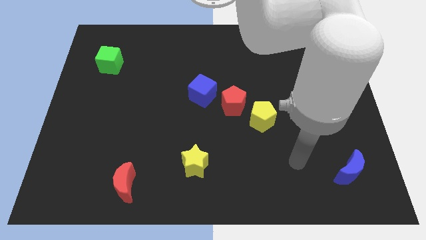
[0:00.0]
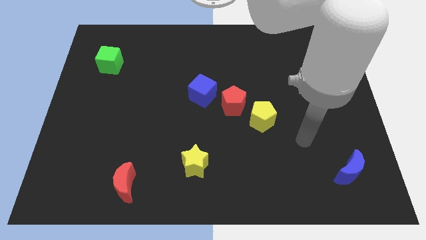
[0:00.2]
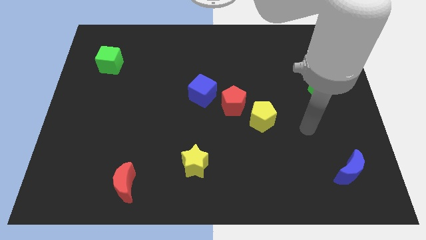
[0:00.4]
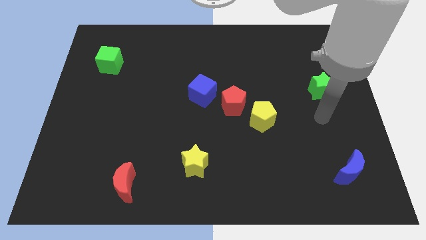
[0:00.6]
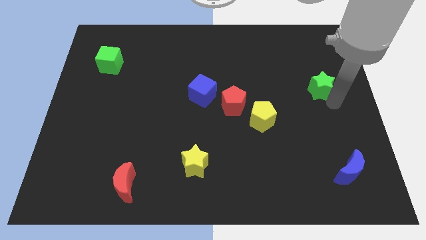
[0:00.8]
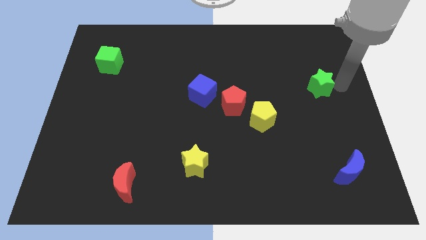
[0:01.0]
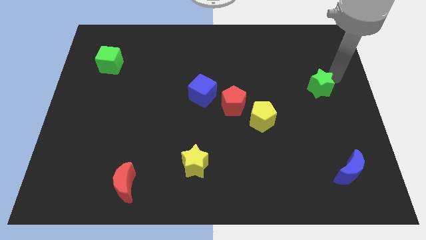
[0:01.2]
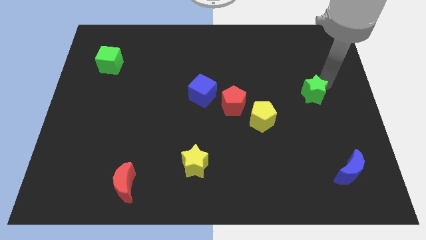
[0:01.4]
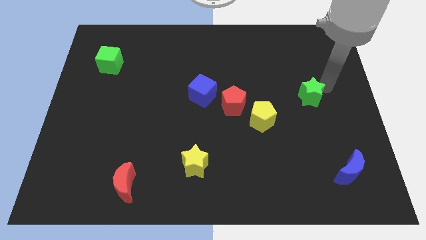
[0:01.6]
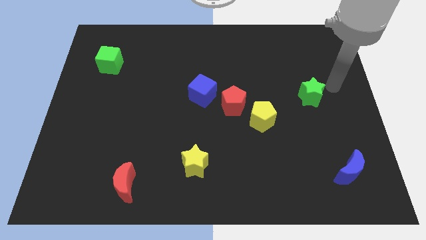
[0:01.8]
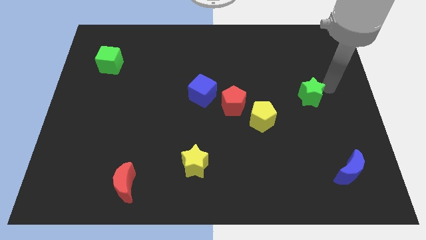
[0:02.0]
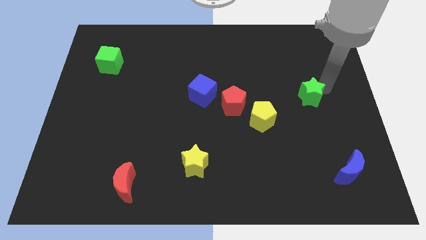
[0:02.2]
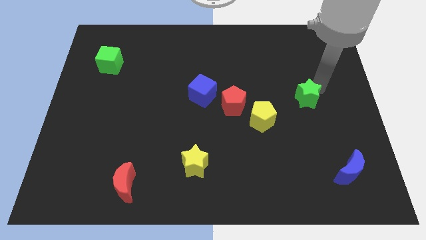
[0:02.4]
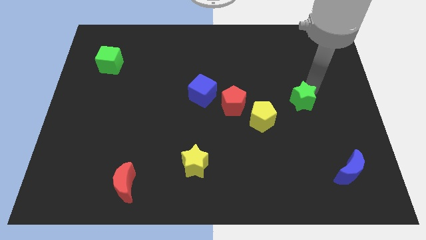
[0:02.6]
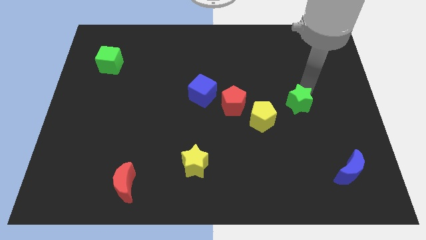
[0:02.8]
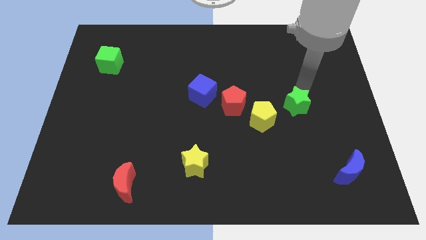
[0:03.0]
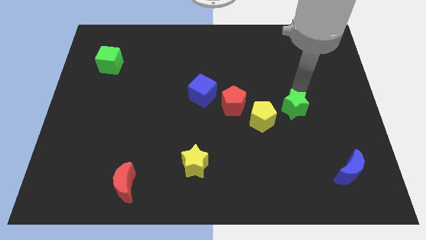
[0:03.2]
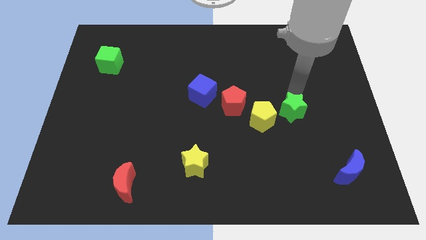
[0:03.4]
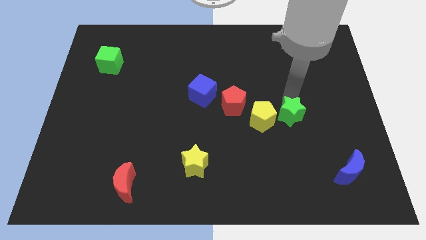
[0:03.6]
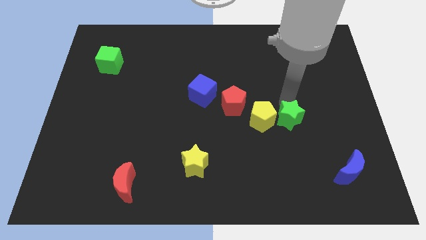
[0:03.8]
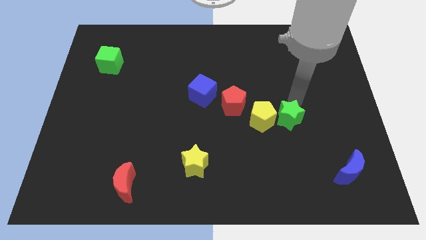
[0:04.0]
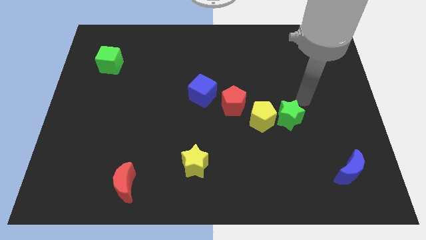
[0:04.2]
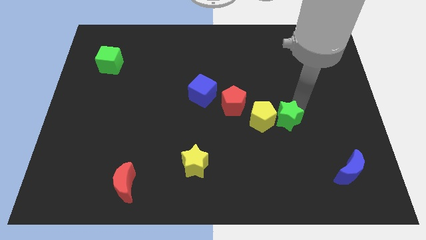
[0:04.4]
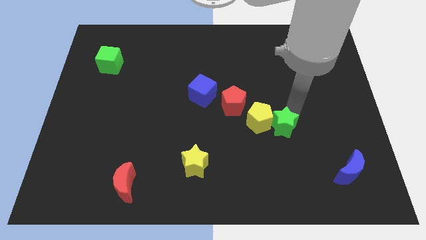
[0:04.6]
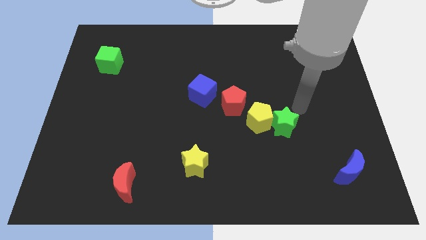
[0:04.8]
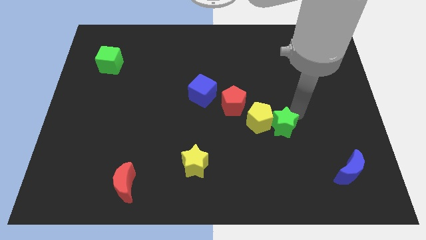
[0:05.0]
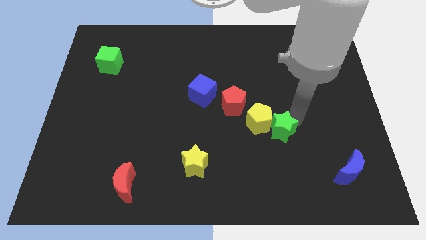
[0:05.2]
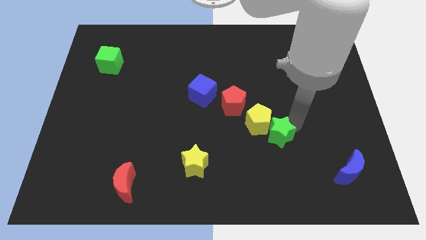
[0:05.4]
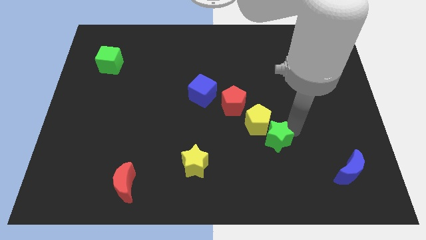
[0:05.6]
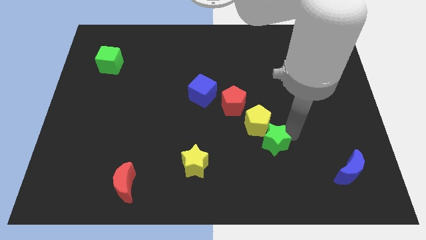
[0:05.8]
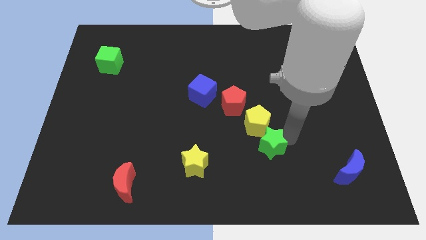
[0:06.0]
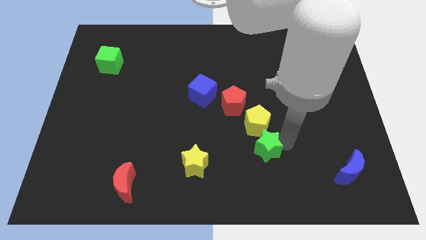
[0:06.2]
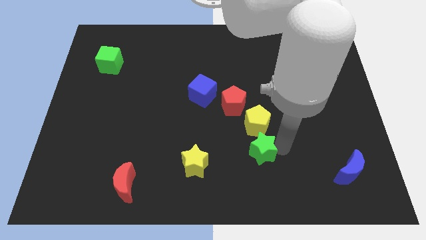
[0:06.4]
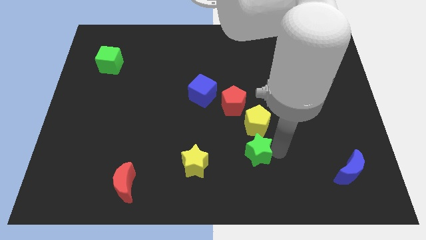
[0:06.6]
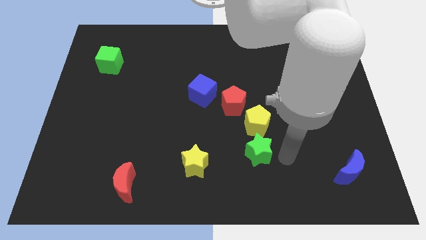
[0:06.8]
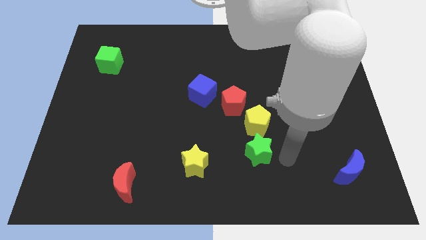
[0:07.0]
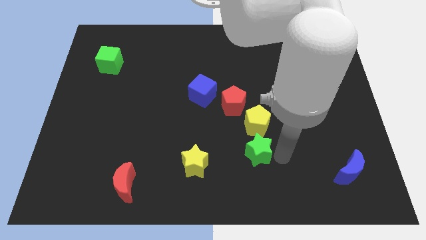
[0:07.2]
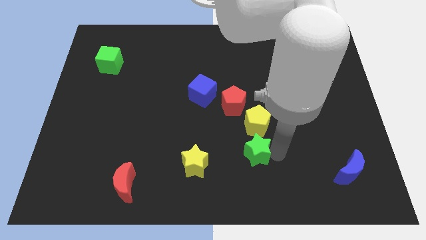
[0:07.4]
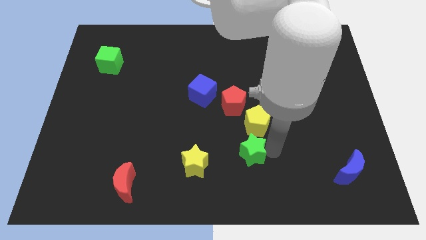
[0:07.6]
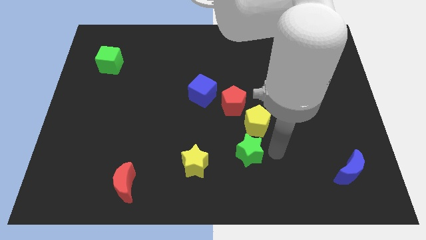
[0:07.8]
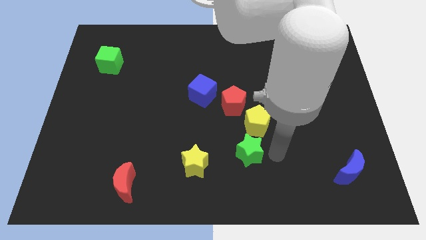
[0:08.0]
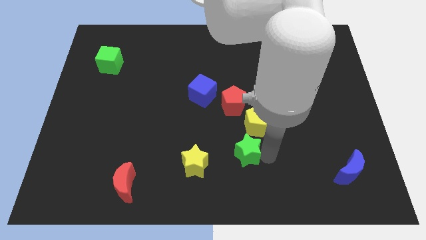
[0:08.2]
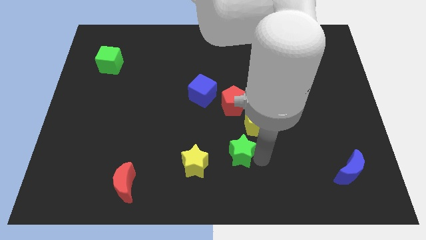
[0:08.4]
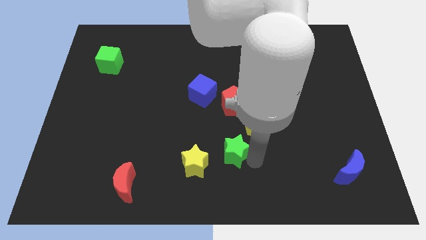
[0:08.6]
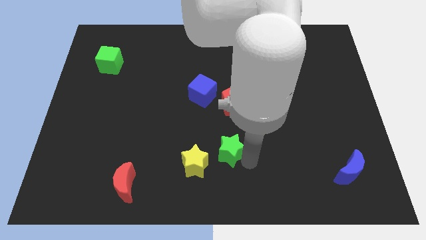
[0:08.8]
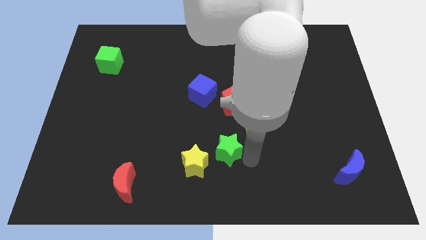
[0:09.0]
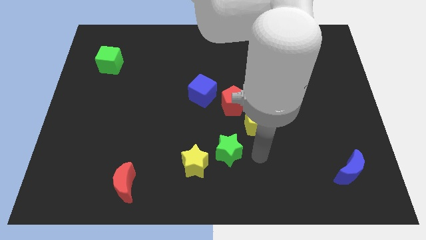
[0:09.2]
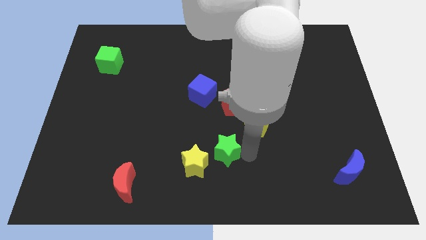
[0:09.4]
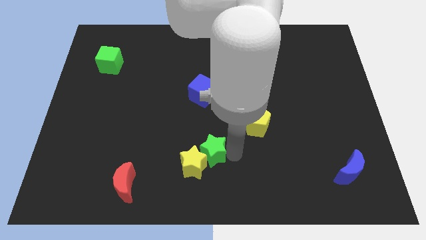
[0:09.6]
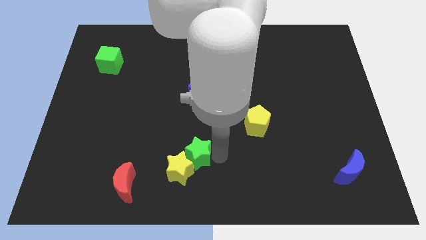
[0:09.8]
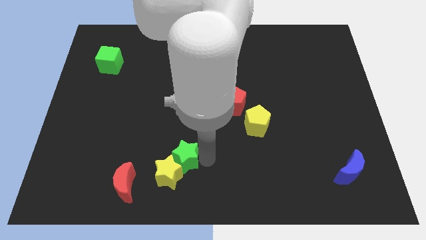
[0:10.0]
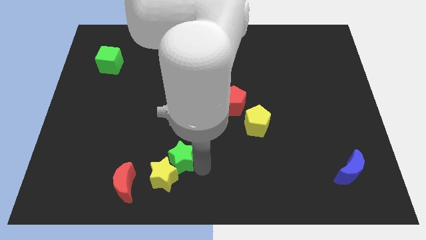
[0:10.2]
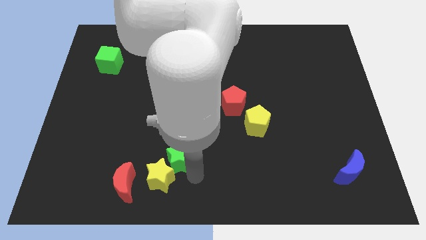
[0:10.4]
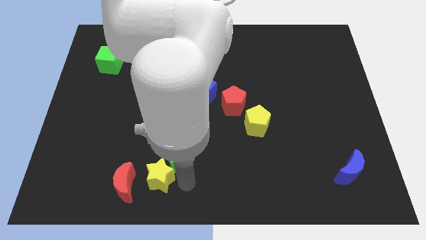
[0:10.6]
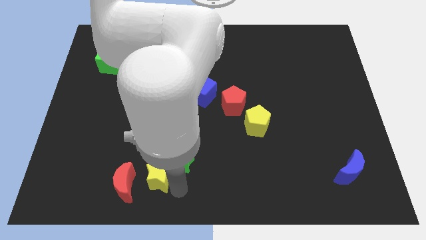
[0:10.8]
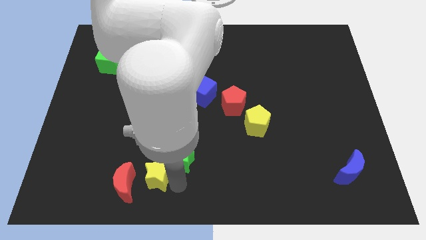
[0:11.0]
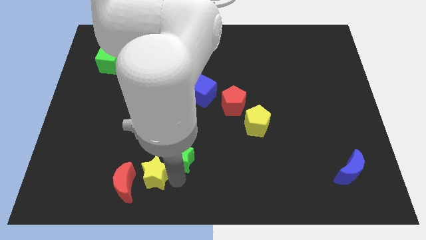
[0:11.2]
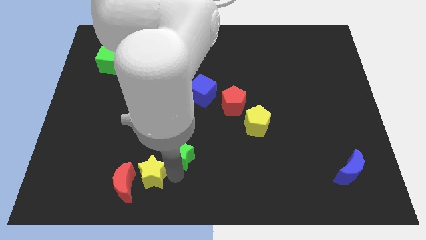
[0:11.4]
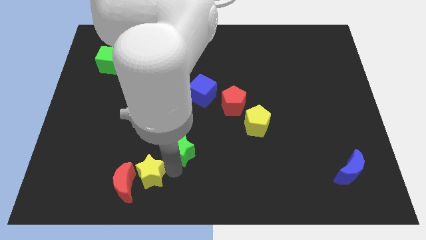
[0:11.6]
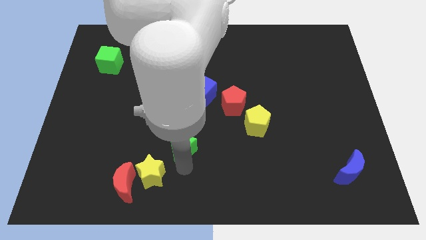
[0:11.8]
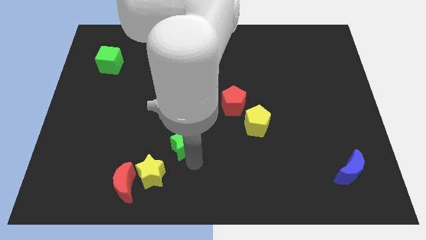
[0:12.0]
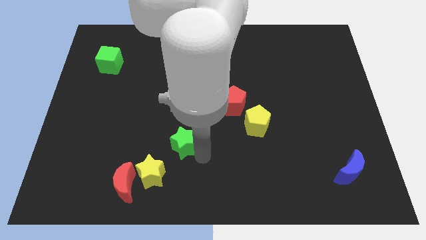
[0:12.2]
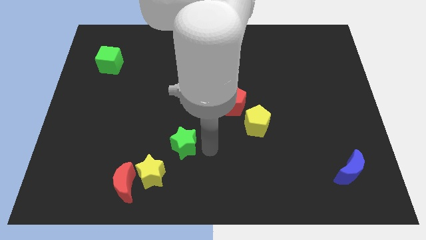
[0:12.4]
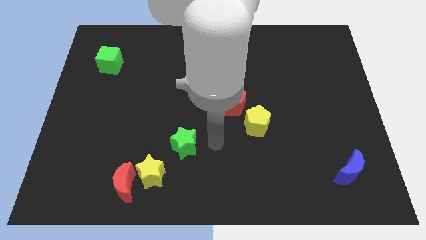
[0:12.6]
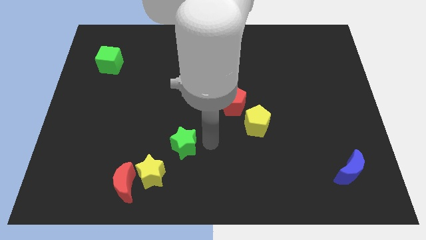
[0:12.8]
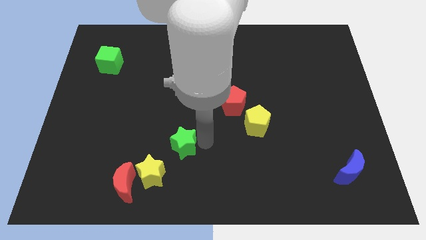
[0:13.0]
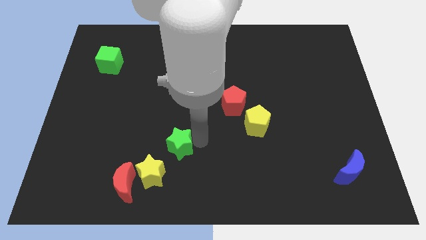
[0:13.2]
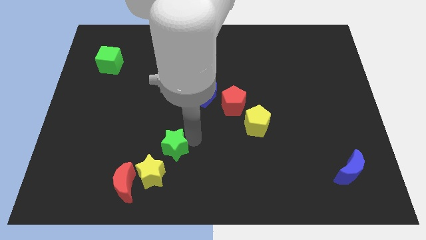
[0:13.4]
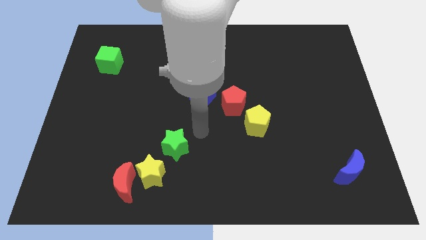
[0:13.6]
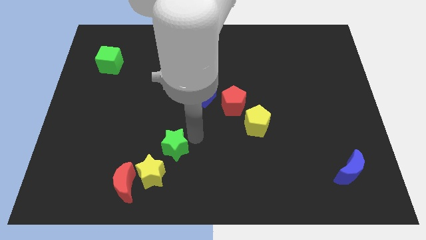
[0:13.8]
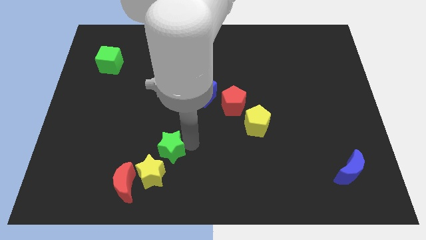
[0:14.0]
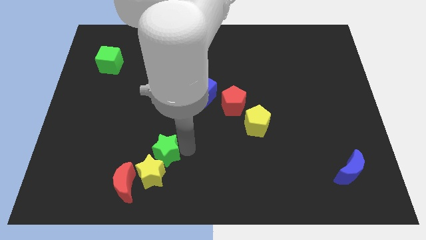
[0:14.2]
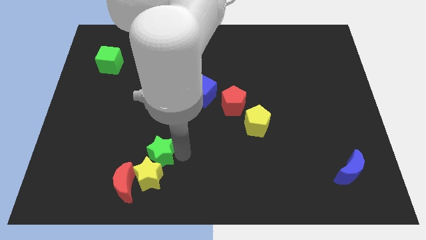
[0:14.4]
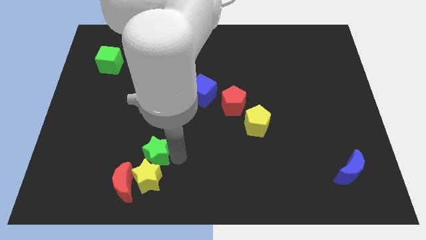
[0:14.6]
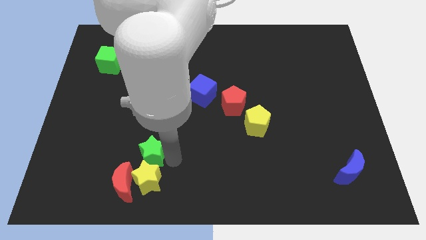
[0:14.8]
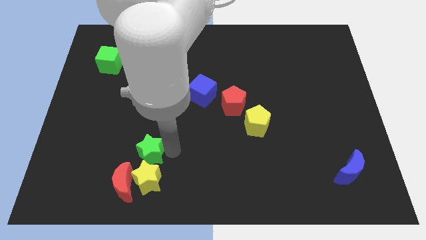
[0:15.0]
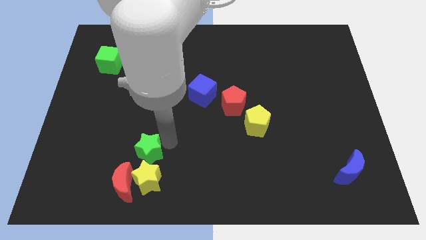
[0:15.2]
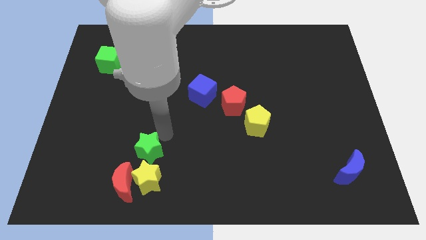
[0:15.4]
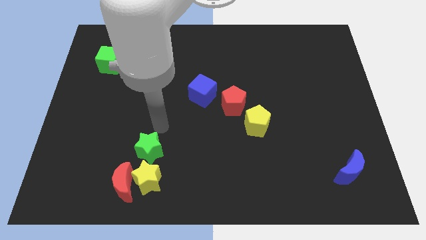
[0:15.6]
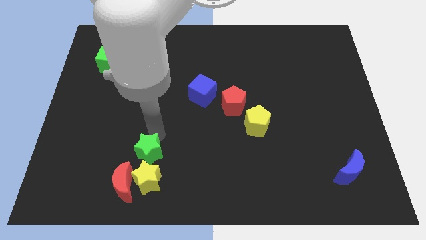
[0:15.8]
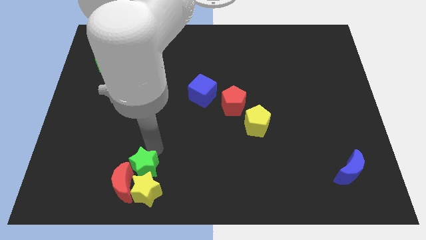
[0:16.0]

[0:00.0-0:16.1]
slide the green star close to the red moon
